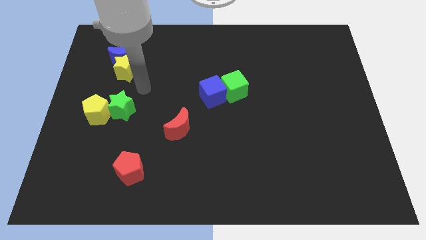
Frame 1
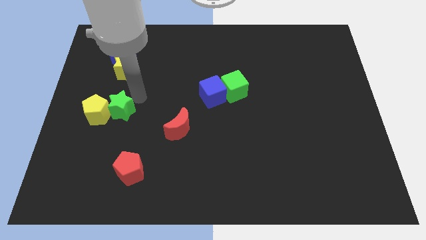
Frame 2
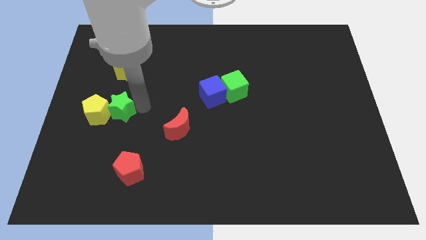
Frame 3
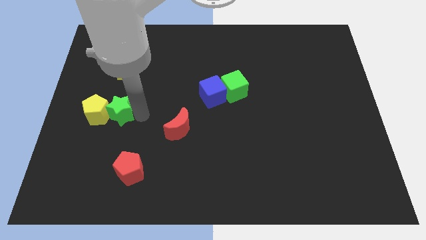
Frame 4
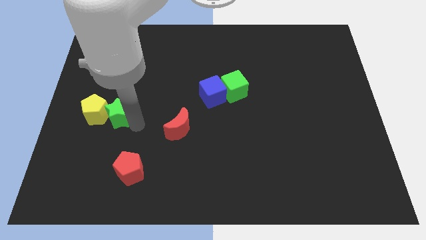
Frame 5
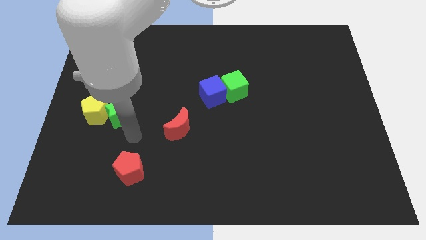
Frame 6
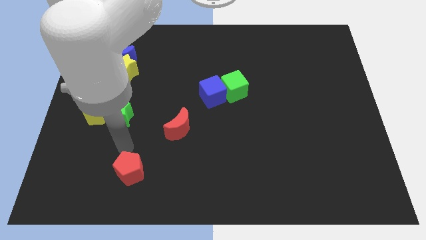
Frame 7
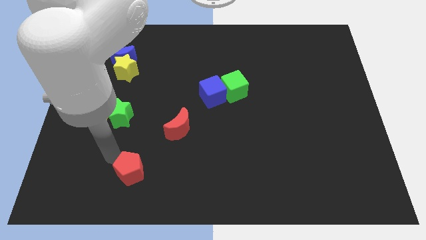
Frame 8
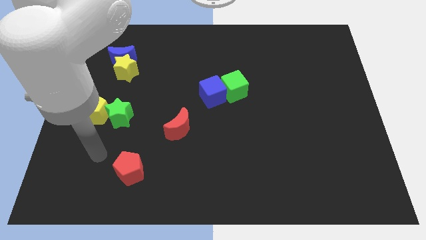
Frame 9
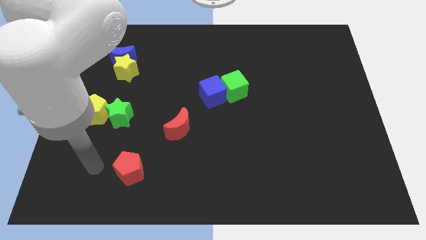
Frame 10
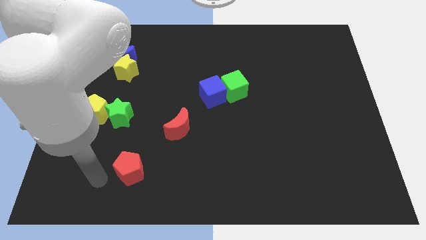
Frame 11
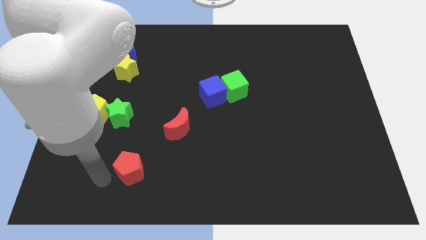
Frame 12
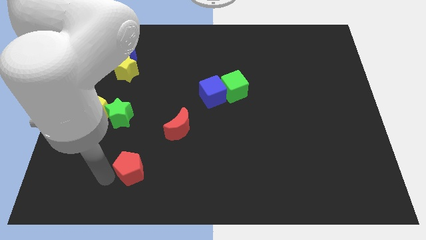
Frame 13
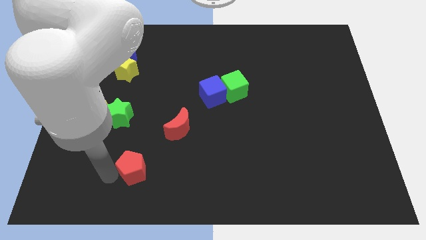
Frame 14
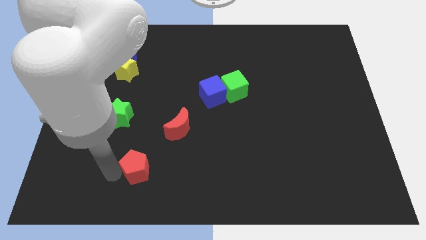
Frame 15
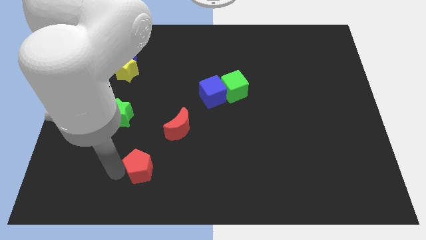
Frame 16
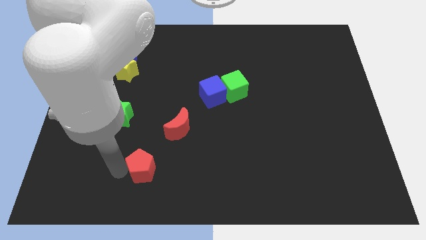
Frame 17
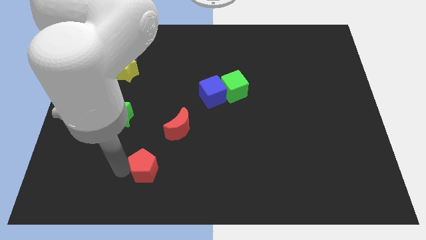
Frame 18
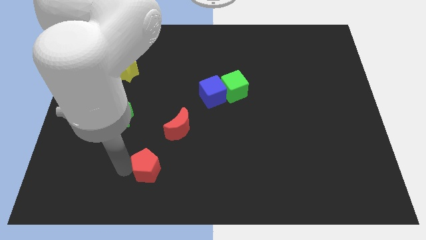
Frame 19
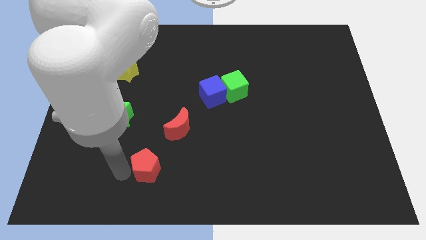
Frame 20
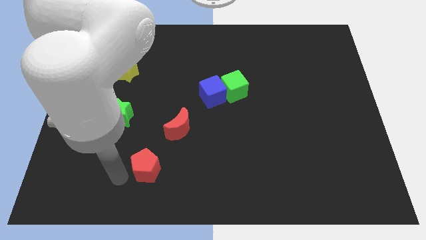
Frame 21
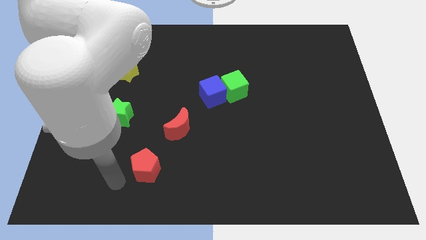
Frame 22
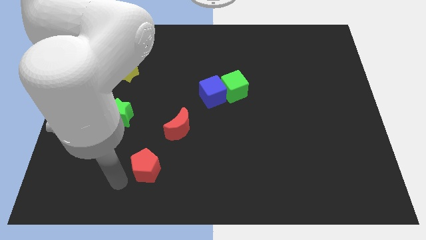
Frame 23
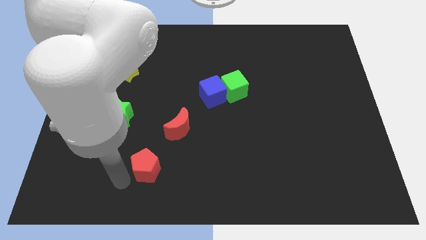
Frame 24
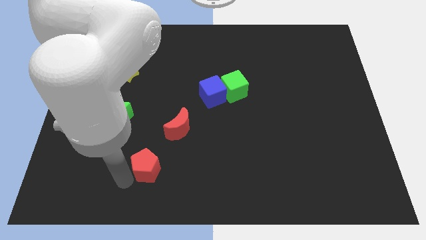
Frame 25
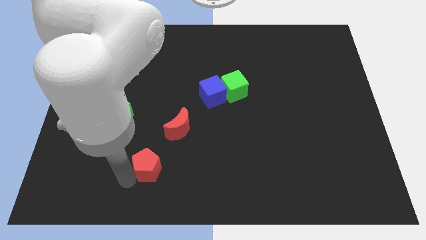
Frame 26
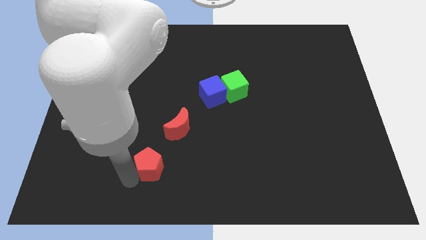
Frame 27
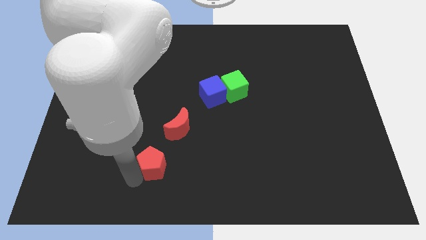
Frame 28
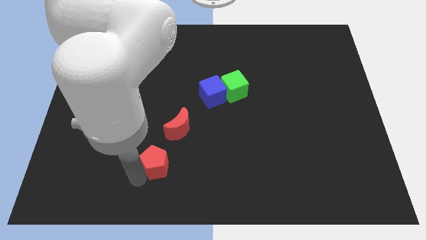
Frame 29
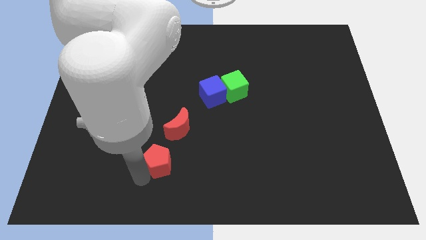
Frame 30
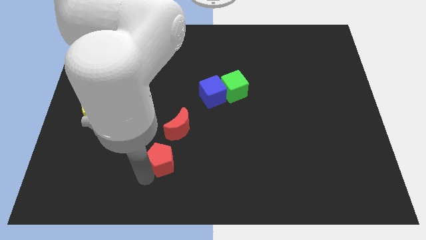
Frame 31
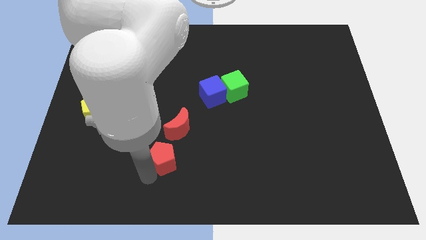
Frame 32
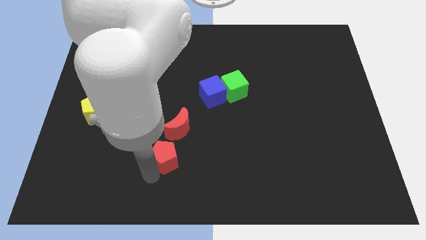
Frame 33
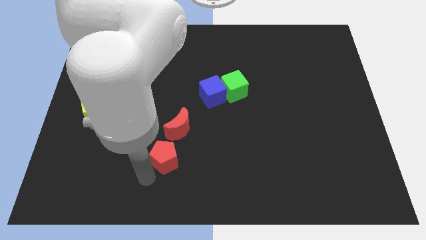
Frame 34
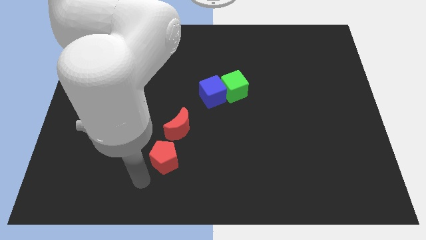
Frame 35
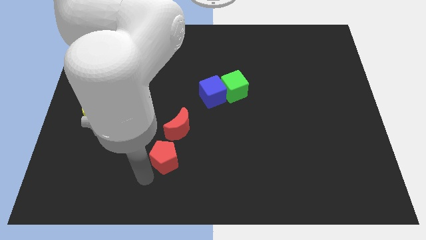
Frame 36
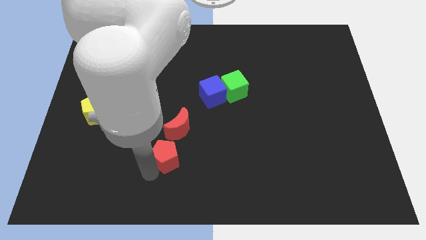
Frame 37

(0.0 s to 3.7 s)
slightly move the red pentagon upwards and then right

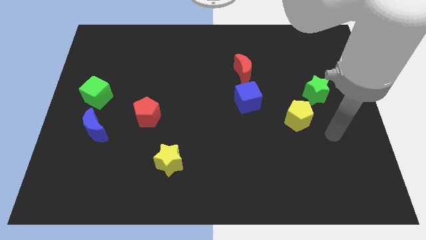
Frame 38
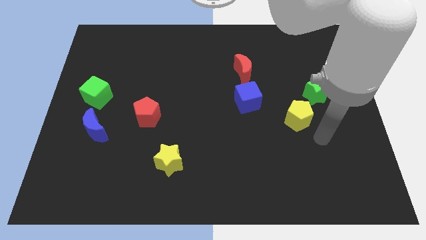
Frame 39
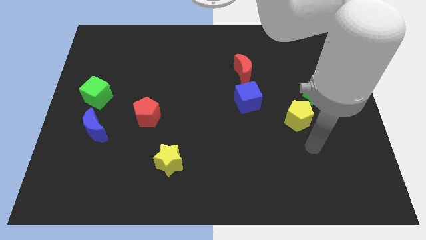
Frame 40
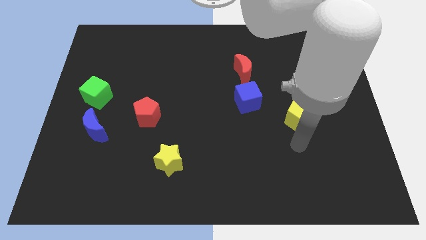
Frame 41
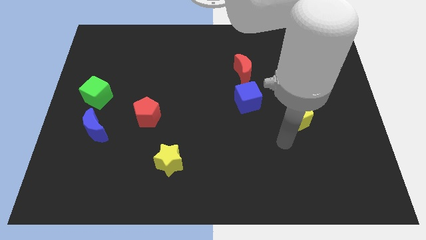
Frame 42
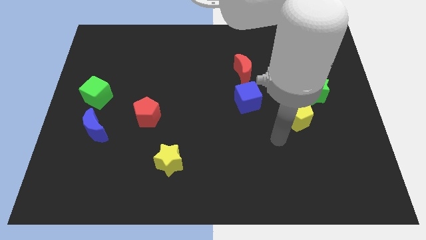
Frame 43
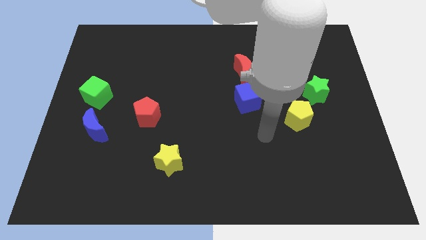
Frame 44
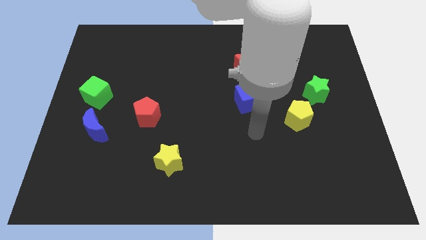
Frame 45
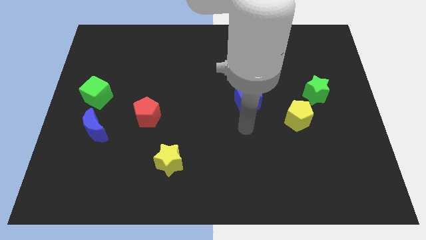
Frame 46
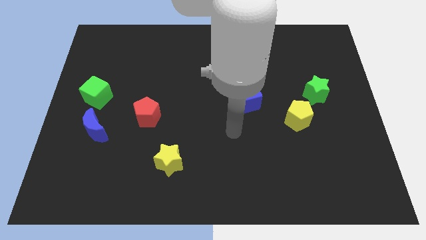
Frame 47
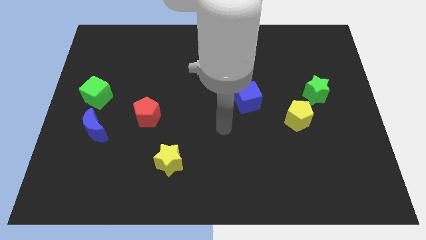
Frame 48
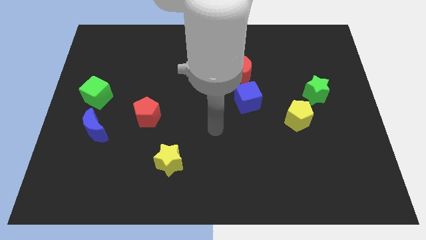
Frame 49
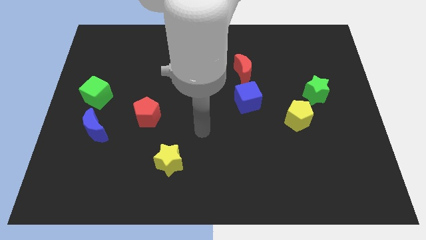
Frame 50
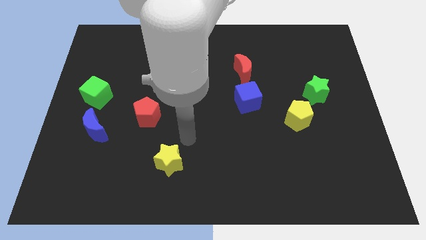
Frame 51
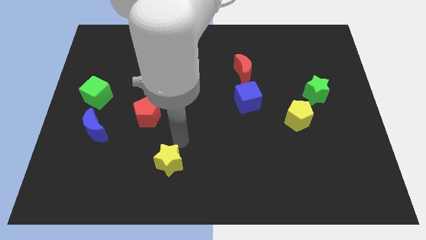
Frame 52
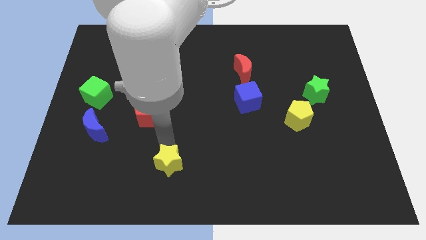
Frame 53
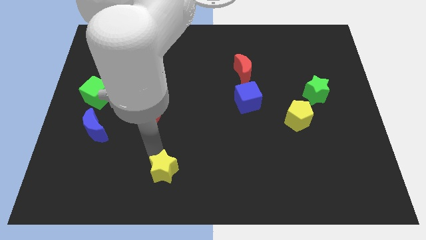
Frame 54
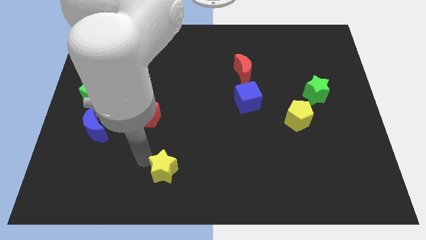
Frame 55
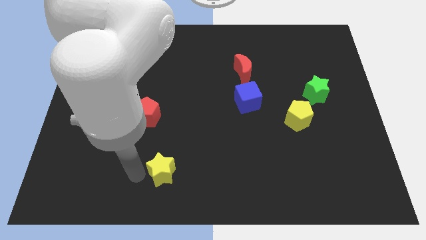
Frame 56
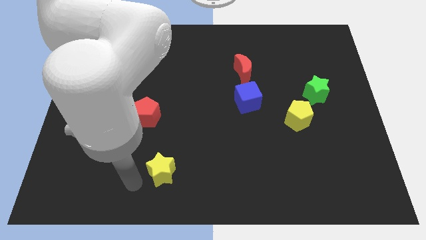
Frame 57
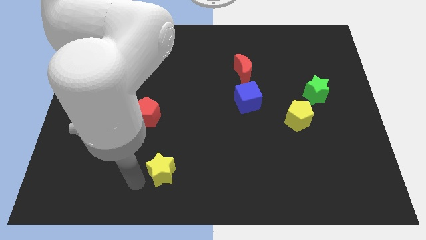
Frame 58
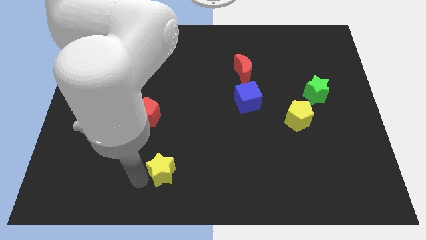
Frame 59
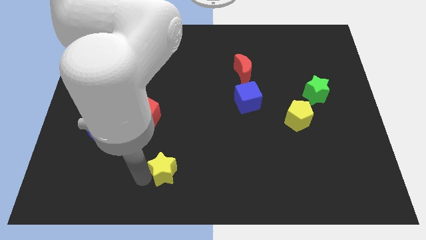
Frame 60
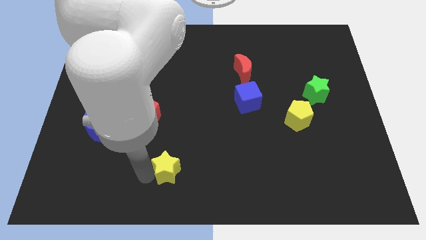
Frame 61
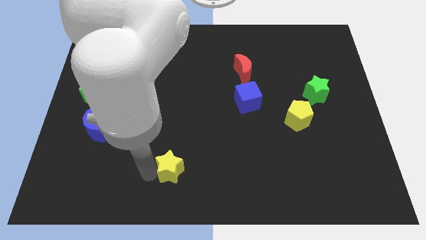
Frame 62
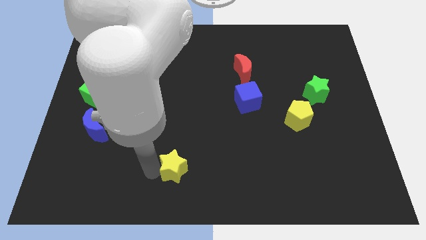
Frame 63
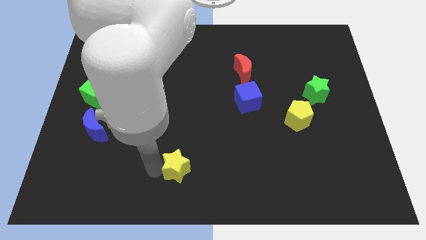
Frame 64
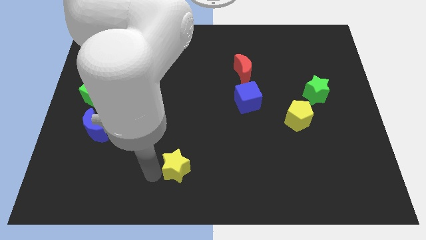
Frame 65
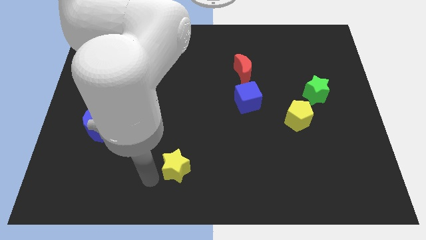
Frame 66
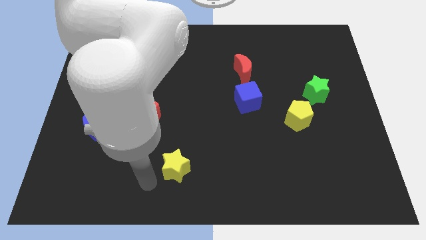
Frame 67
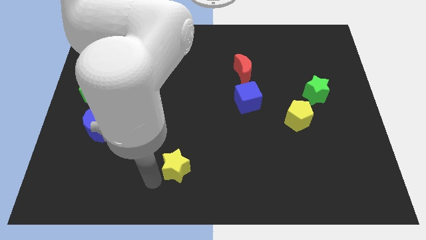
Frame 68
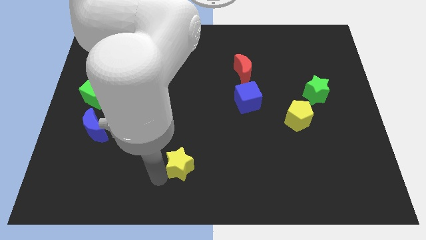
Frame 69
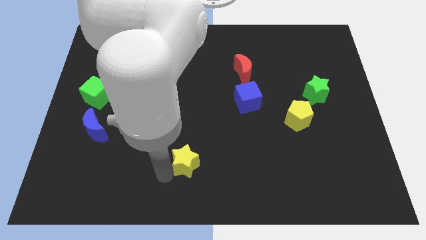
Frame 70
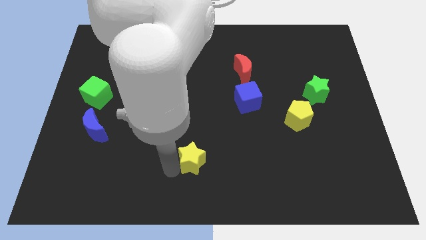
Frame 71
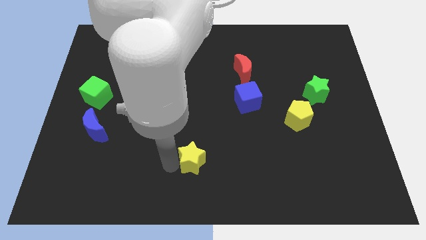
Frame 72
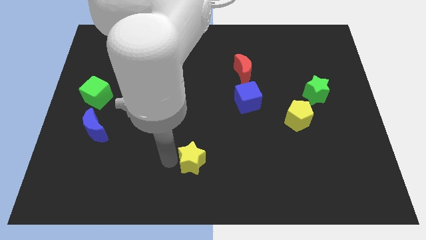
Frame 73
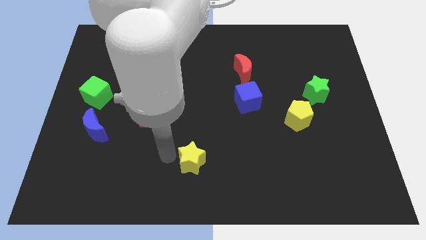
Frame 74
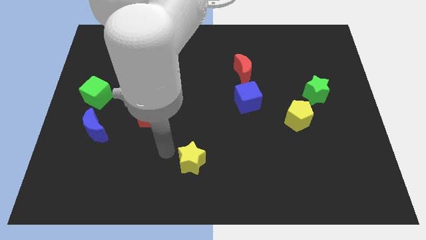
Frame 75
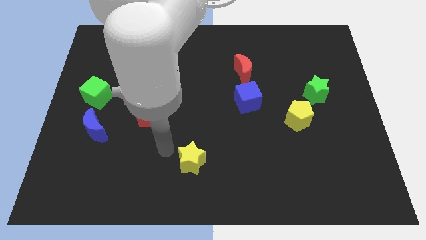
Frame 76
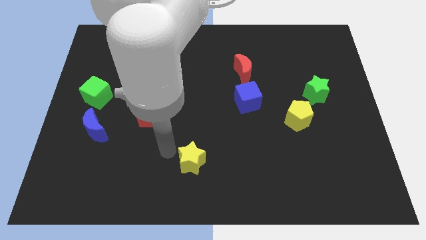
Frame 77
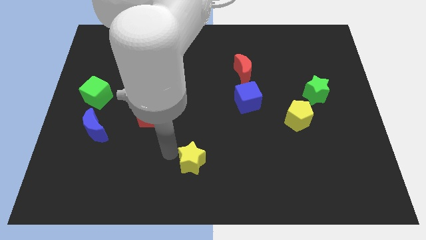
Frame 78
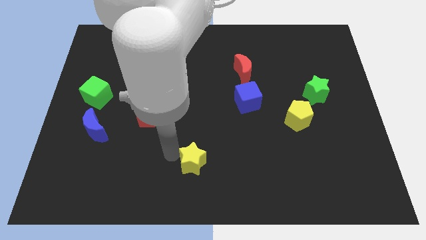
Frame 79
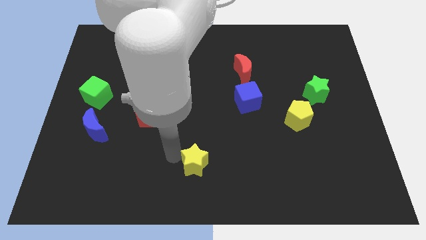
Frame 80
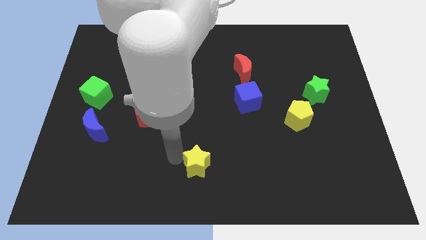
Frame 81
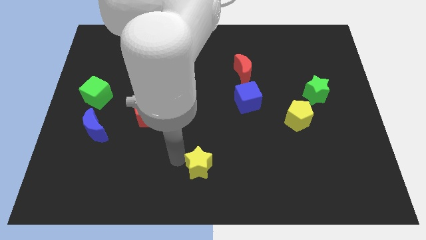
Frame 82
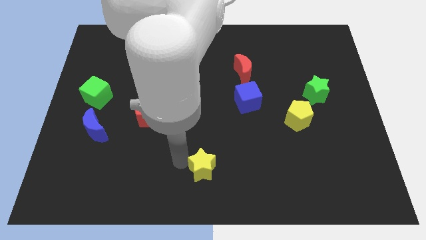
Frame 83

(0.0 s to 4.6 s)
slide the yellow star right a little bit
